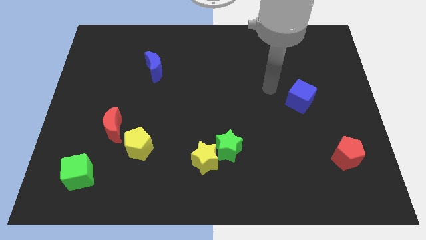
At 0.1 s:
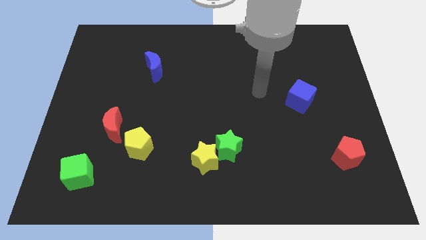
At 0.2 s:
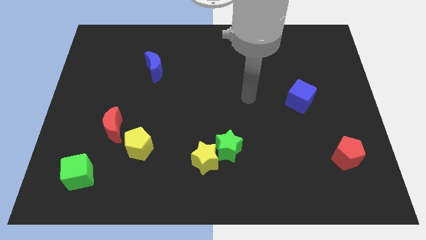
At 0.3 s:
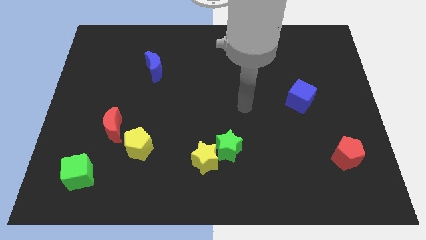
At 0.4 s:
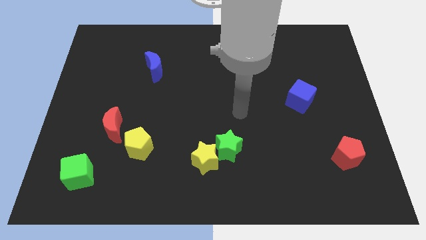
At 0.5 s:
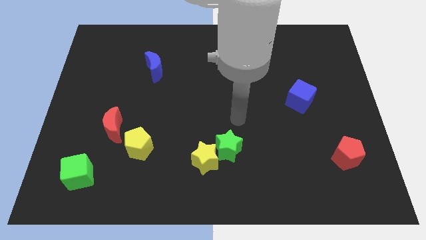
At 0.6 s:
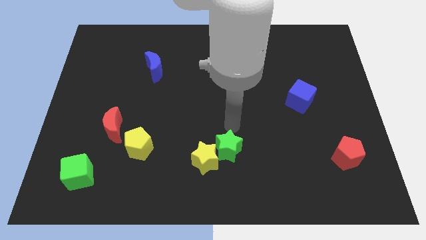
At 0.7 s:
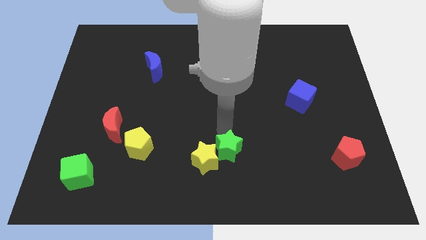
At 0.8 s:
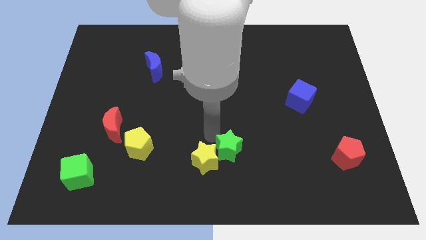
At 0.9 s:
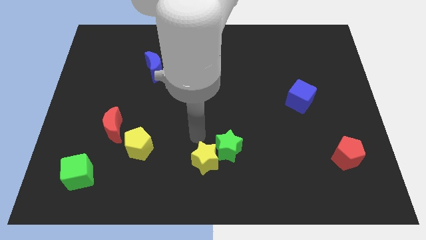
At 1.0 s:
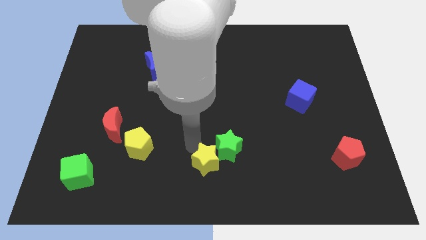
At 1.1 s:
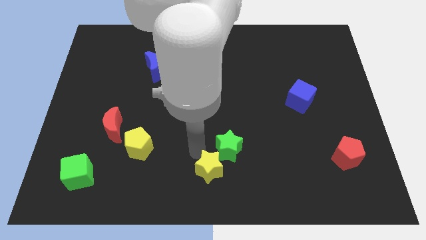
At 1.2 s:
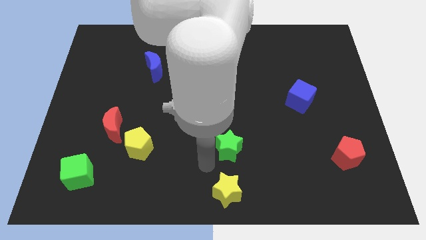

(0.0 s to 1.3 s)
pull the green star apart from the yellow star

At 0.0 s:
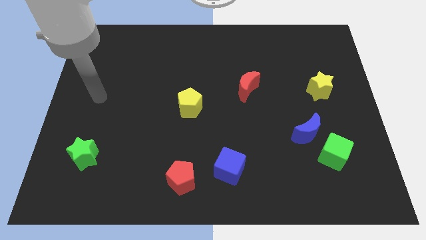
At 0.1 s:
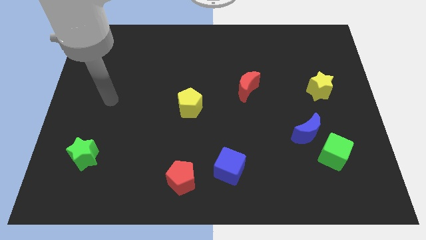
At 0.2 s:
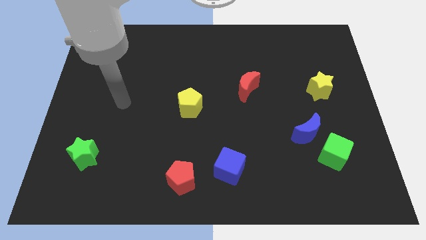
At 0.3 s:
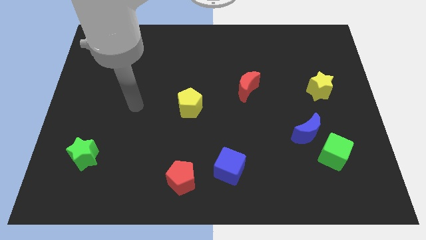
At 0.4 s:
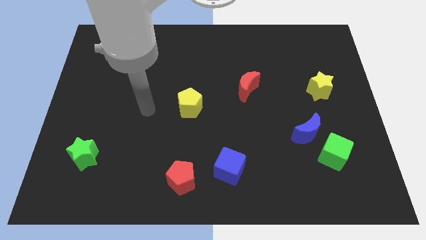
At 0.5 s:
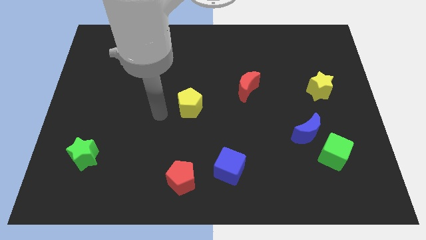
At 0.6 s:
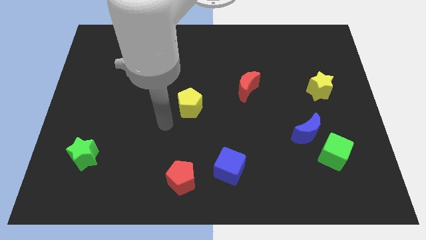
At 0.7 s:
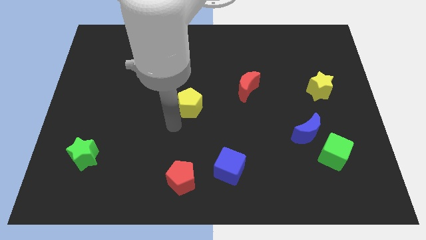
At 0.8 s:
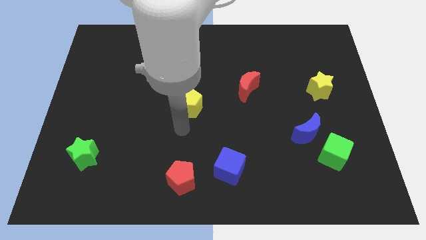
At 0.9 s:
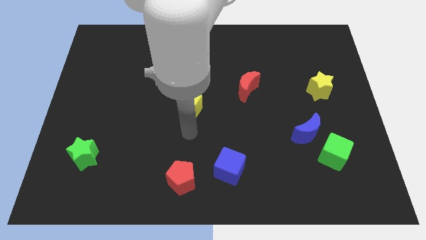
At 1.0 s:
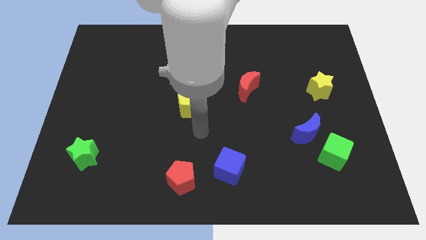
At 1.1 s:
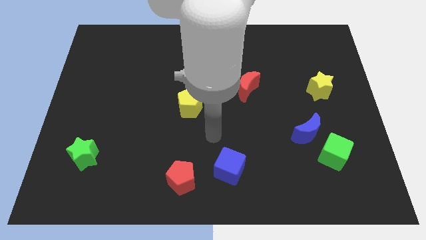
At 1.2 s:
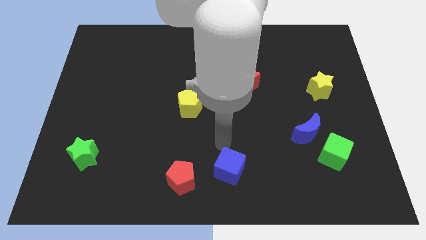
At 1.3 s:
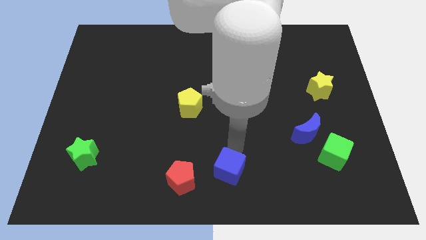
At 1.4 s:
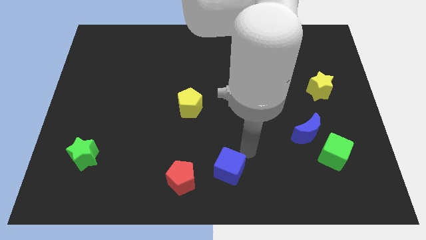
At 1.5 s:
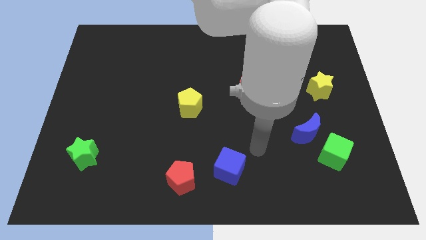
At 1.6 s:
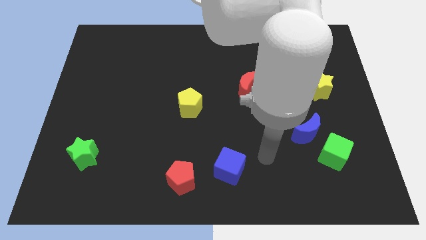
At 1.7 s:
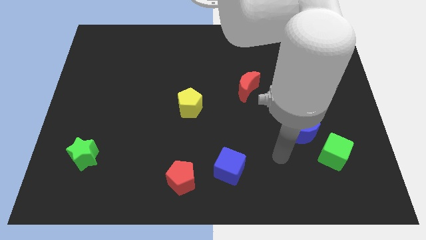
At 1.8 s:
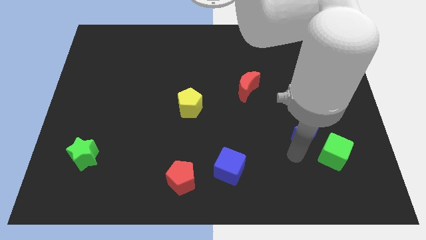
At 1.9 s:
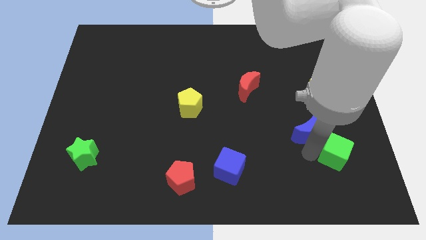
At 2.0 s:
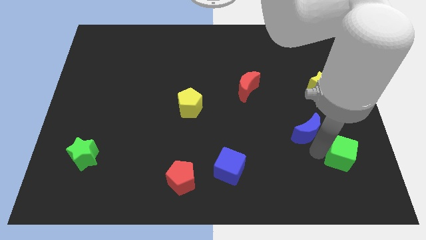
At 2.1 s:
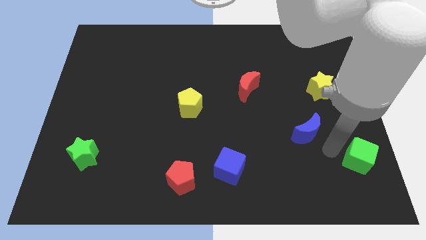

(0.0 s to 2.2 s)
separate the blue moon from the green cube

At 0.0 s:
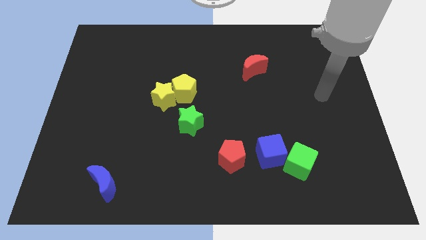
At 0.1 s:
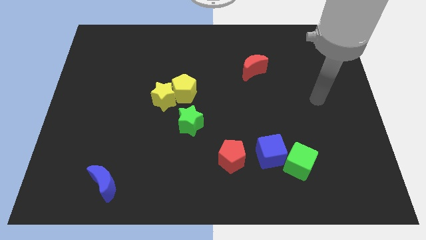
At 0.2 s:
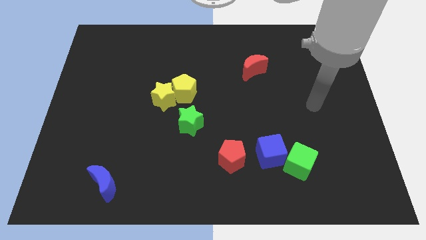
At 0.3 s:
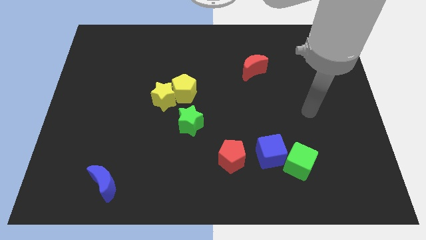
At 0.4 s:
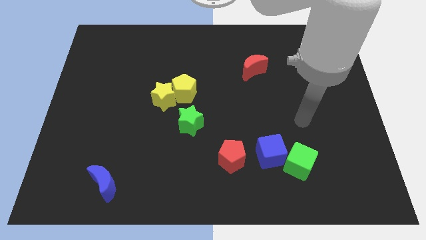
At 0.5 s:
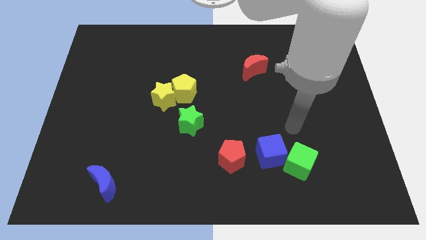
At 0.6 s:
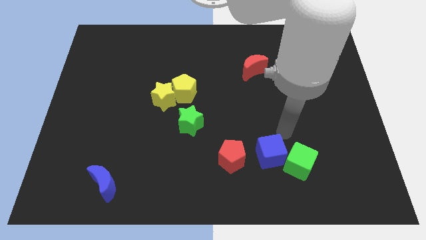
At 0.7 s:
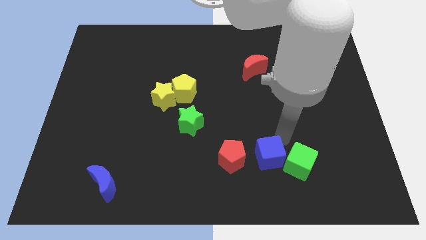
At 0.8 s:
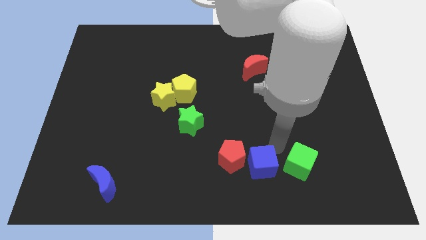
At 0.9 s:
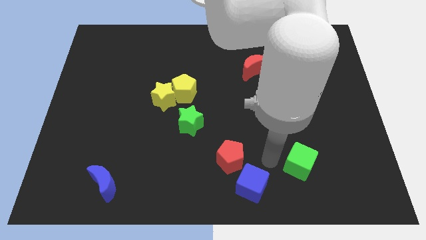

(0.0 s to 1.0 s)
pull the green cube apart from the blue cube

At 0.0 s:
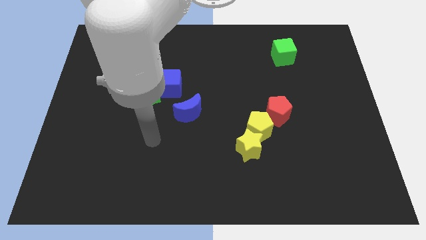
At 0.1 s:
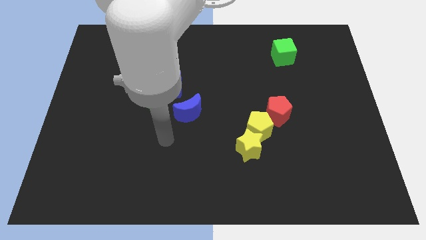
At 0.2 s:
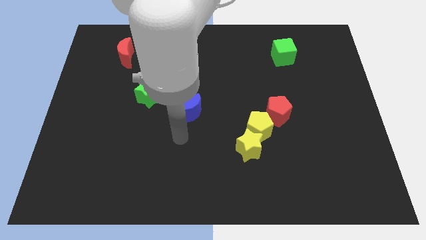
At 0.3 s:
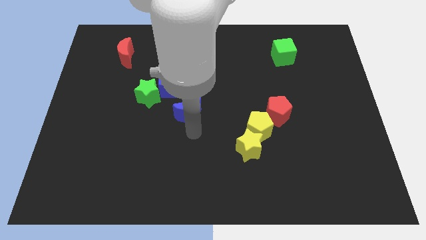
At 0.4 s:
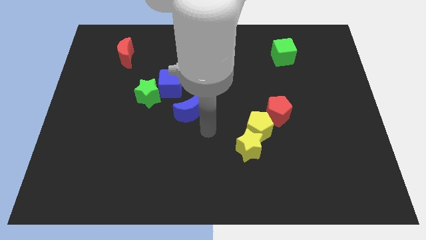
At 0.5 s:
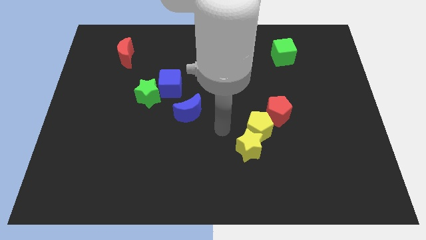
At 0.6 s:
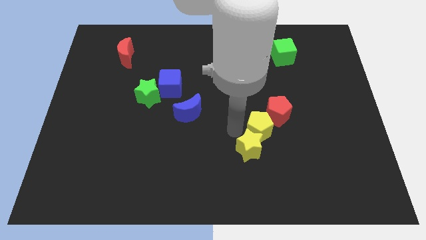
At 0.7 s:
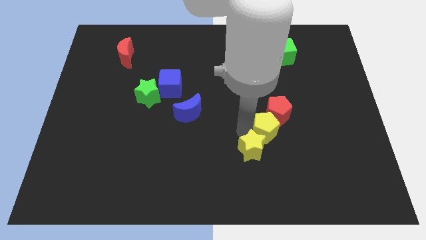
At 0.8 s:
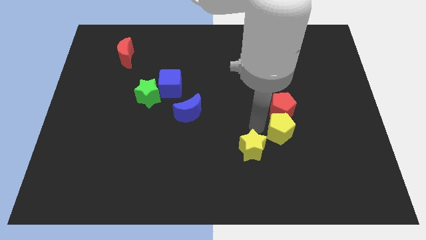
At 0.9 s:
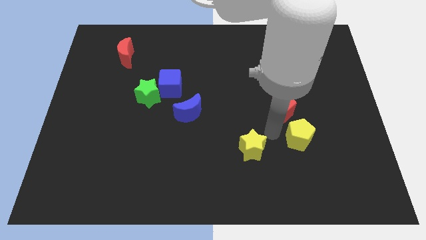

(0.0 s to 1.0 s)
separate the yellow star from the yellow pentagon

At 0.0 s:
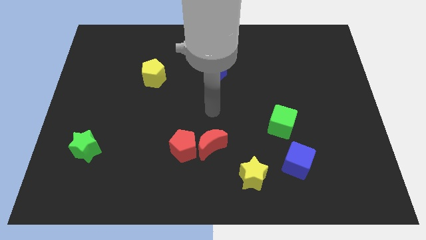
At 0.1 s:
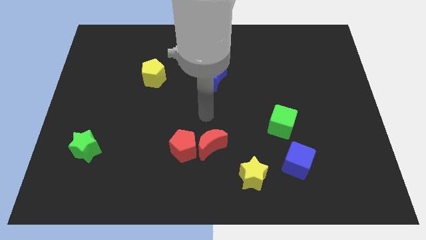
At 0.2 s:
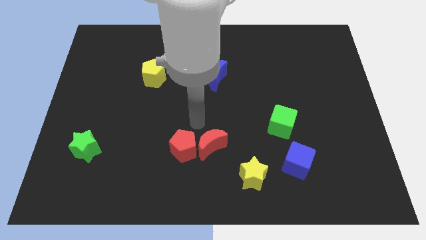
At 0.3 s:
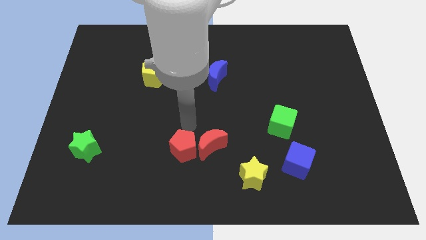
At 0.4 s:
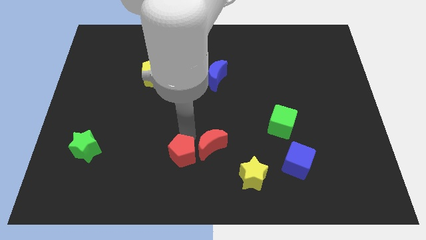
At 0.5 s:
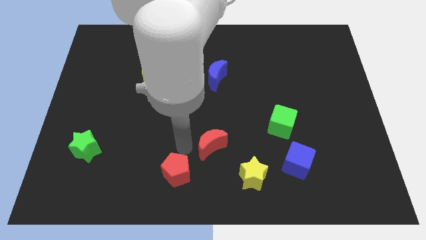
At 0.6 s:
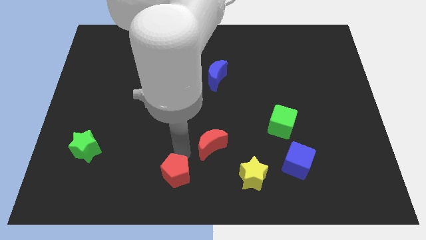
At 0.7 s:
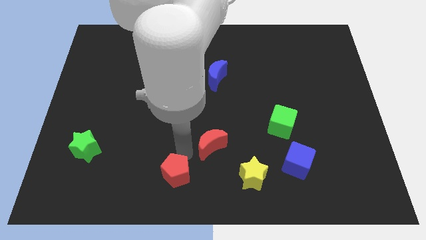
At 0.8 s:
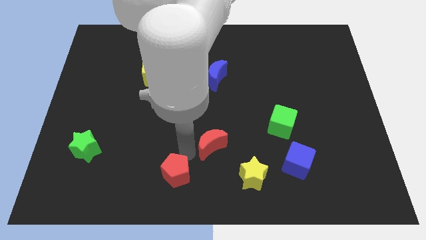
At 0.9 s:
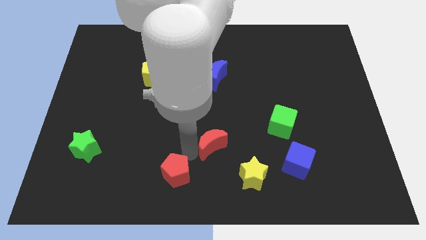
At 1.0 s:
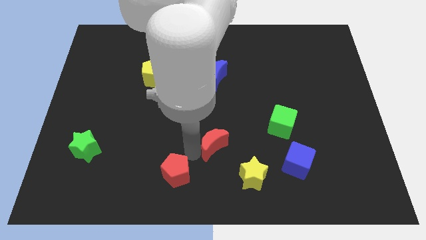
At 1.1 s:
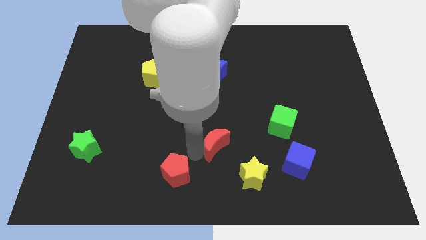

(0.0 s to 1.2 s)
pull the red moon apart from the red pentagon

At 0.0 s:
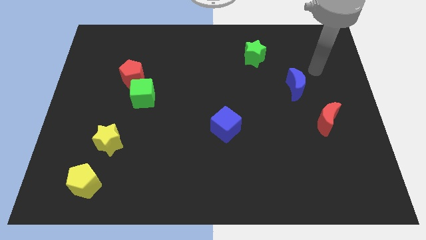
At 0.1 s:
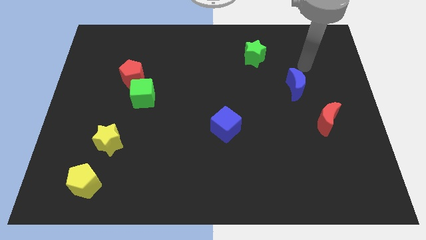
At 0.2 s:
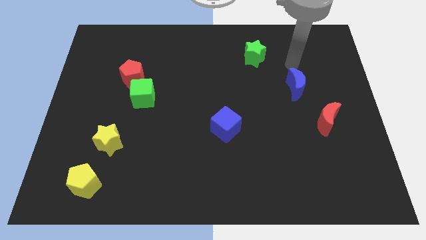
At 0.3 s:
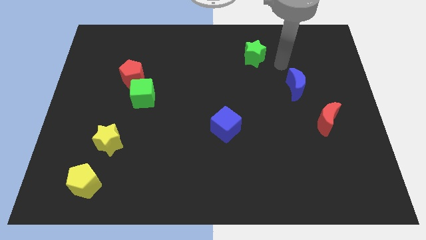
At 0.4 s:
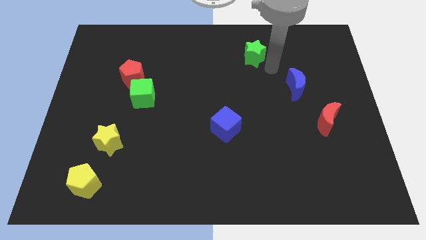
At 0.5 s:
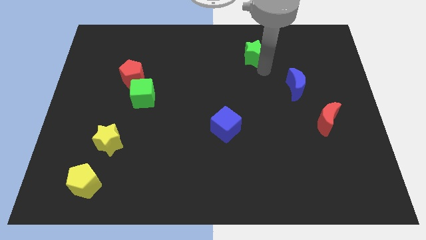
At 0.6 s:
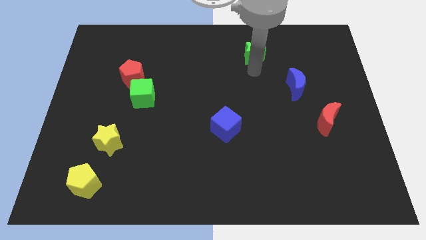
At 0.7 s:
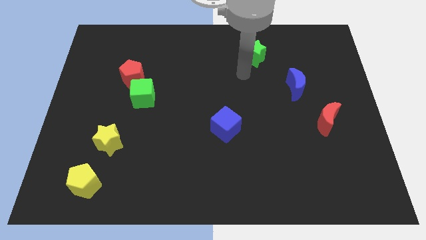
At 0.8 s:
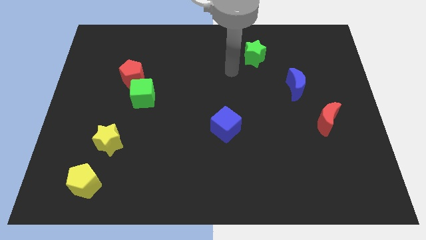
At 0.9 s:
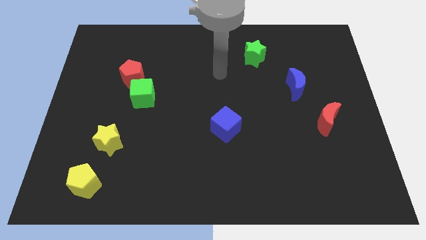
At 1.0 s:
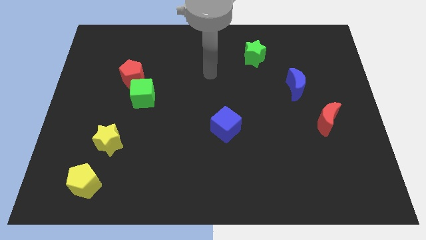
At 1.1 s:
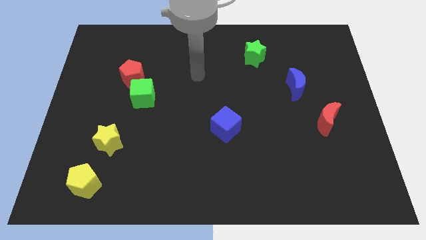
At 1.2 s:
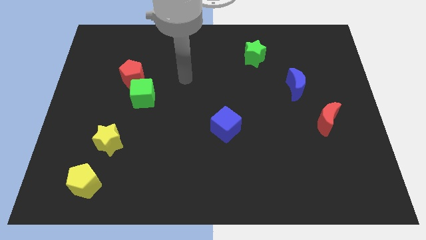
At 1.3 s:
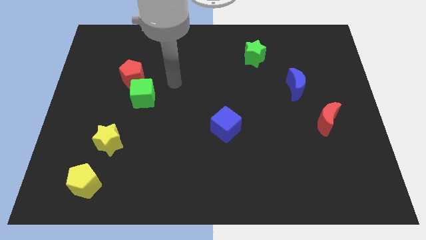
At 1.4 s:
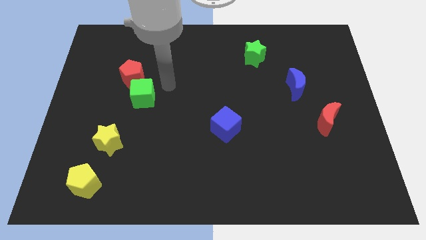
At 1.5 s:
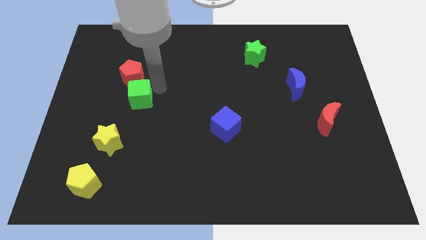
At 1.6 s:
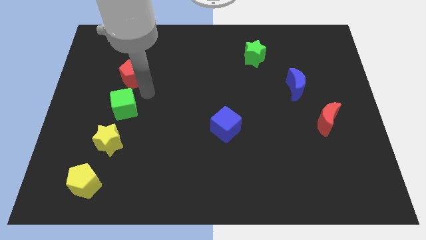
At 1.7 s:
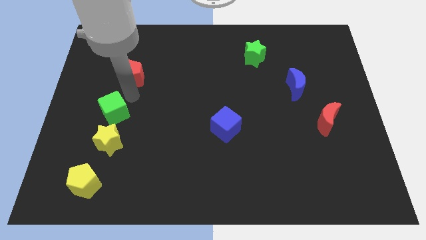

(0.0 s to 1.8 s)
separate the red pentagon from the green cube

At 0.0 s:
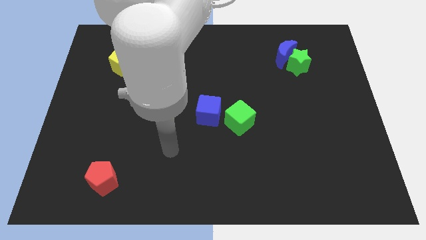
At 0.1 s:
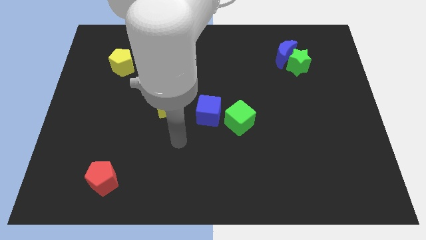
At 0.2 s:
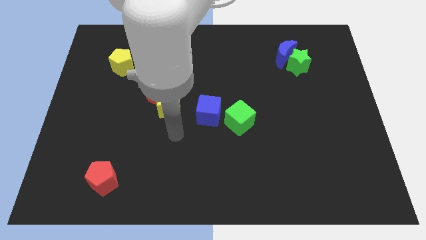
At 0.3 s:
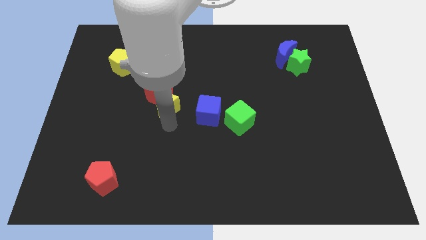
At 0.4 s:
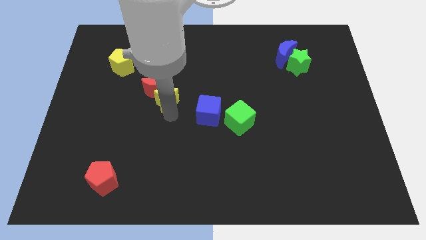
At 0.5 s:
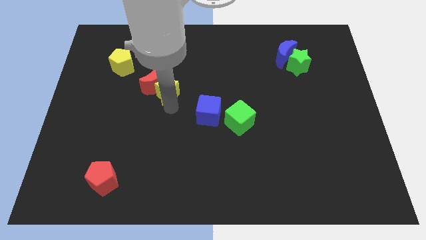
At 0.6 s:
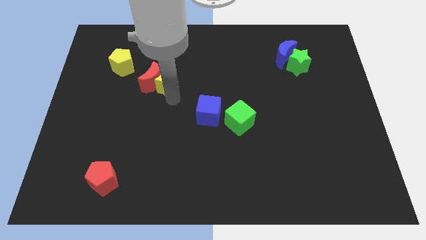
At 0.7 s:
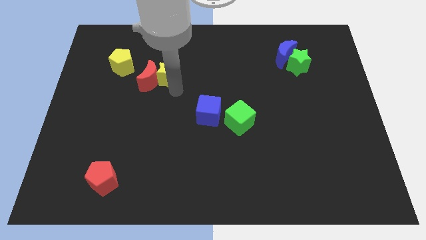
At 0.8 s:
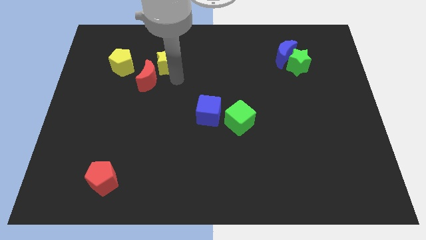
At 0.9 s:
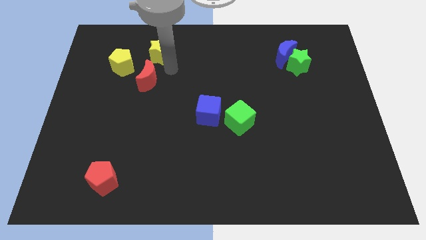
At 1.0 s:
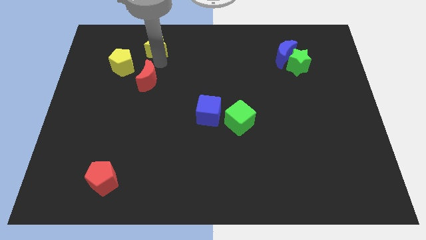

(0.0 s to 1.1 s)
pull the red moon apart from the yellow star
